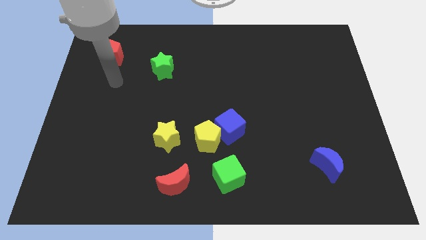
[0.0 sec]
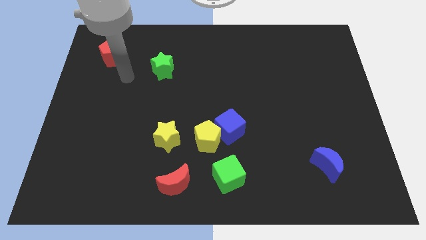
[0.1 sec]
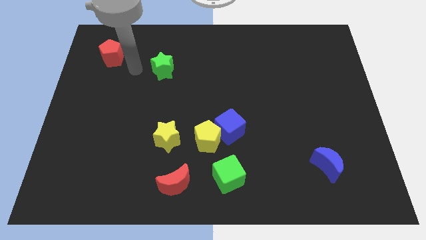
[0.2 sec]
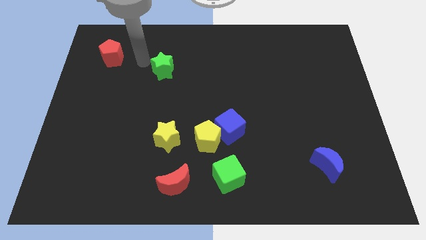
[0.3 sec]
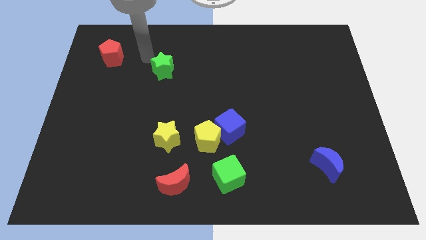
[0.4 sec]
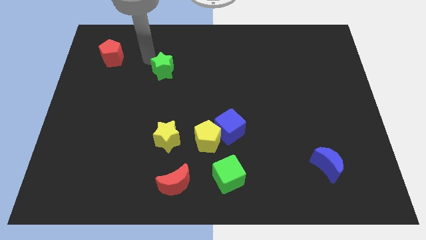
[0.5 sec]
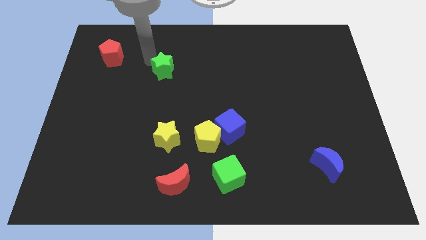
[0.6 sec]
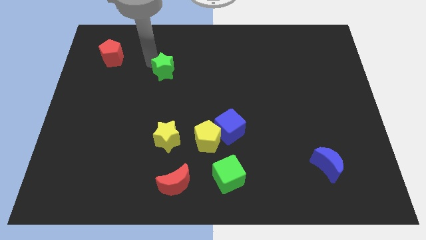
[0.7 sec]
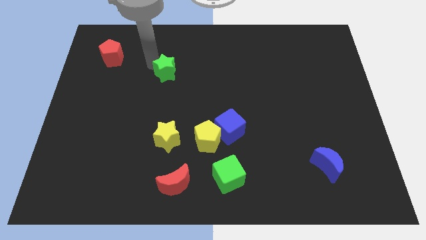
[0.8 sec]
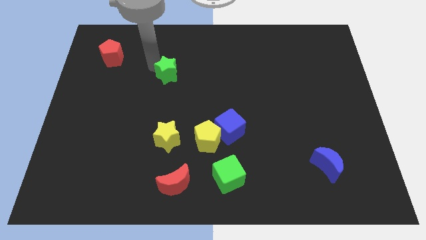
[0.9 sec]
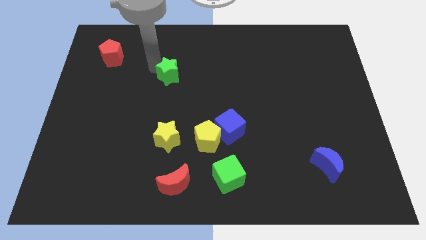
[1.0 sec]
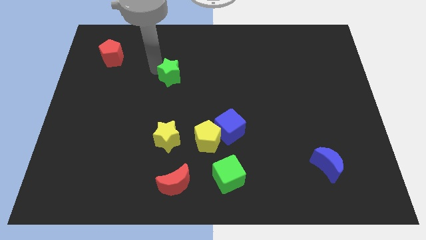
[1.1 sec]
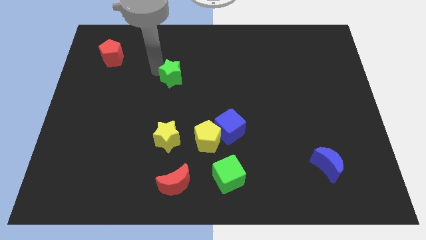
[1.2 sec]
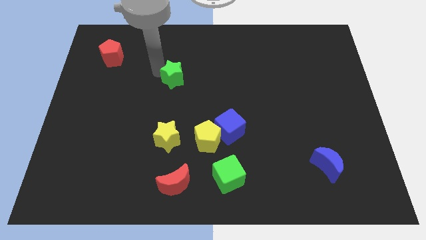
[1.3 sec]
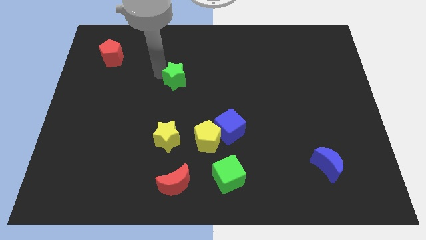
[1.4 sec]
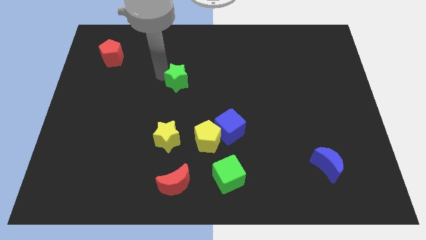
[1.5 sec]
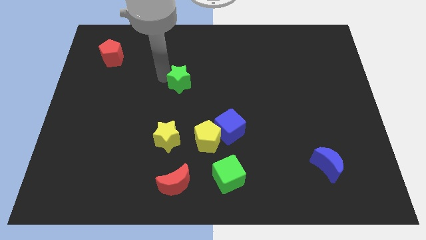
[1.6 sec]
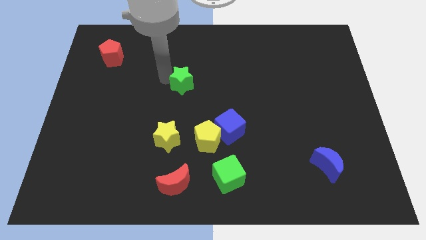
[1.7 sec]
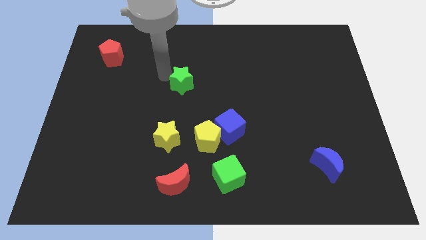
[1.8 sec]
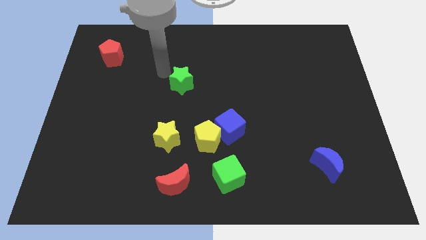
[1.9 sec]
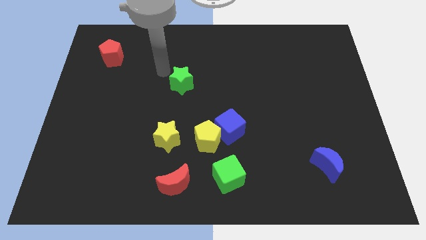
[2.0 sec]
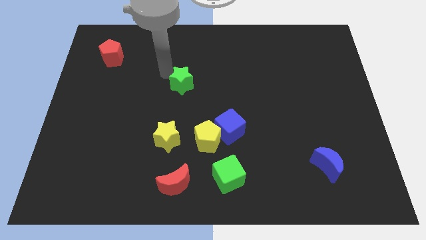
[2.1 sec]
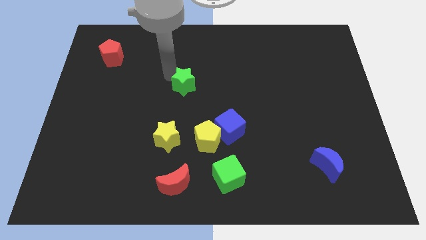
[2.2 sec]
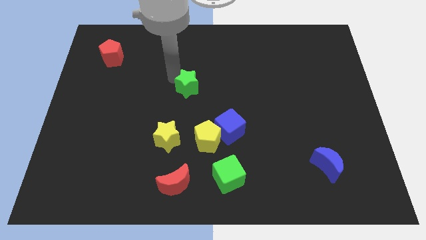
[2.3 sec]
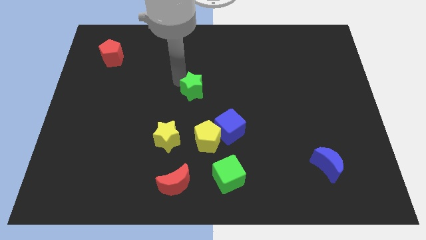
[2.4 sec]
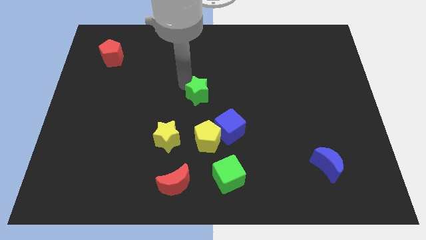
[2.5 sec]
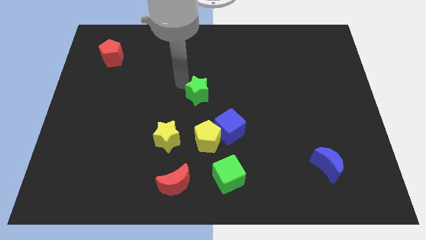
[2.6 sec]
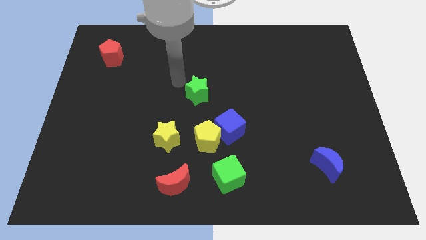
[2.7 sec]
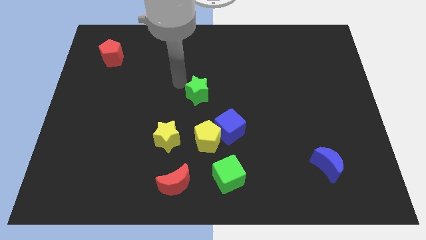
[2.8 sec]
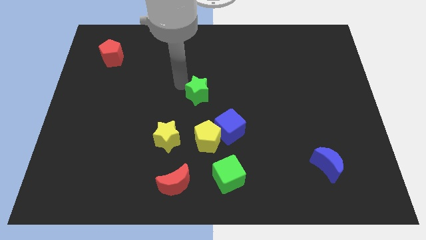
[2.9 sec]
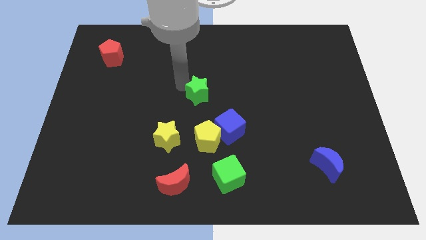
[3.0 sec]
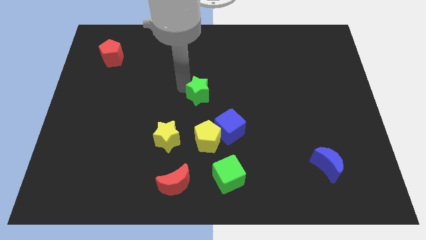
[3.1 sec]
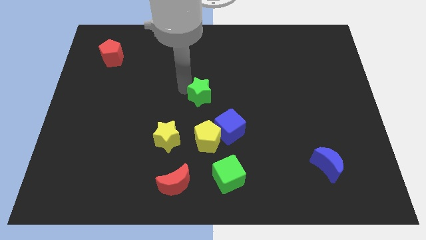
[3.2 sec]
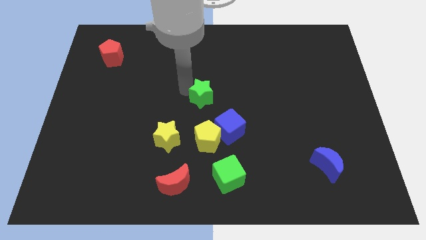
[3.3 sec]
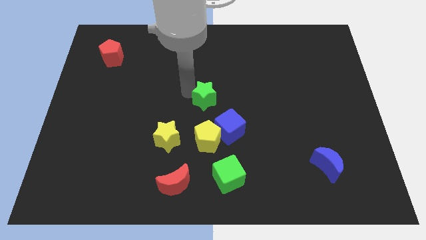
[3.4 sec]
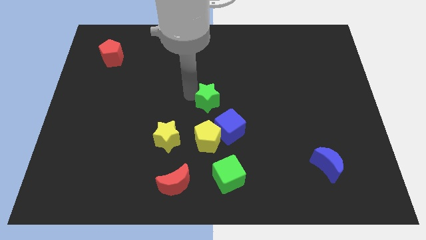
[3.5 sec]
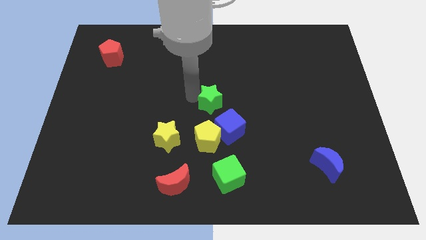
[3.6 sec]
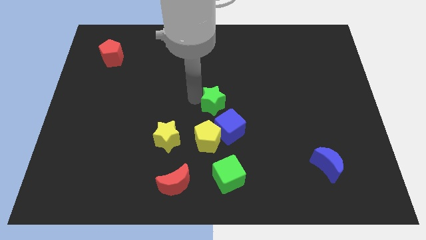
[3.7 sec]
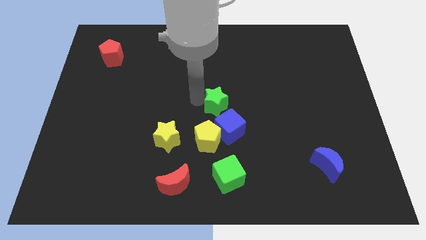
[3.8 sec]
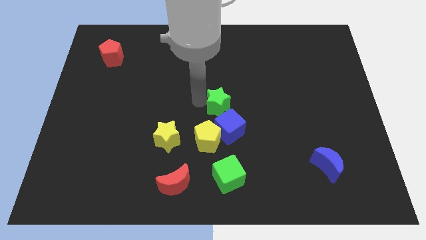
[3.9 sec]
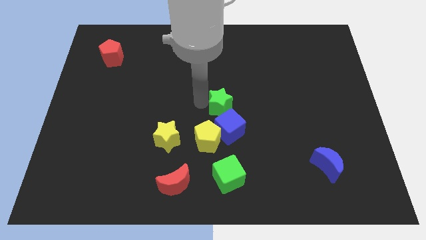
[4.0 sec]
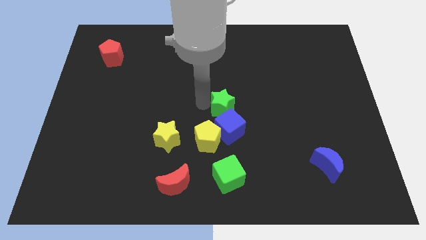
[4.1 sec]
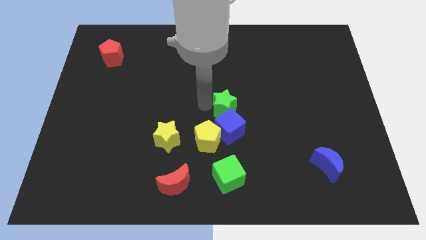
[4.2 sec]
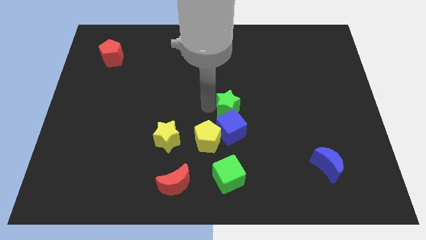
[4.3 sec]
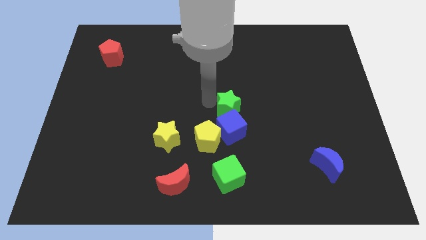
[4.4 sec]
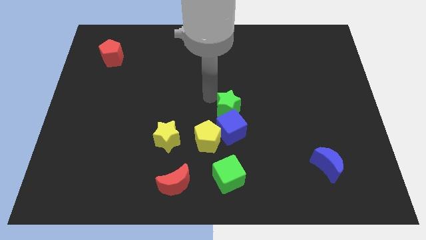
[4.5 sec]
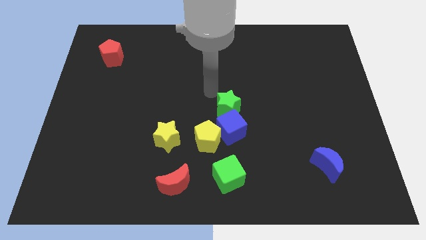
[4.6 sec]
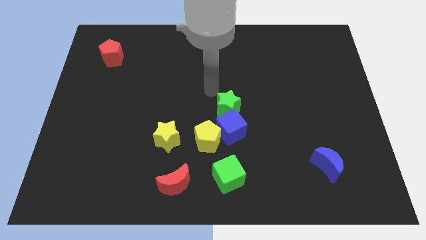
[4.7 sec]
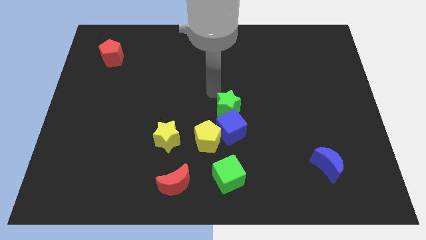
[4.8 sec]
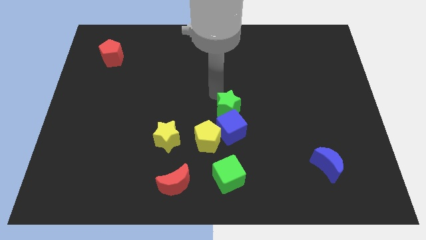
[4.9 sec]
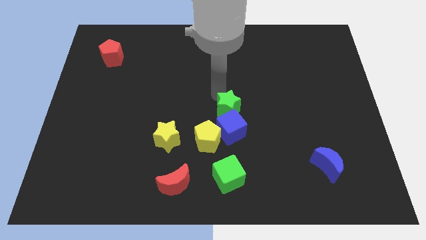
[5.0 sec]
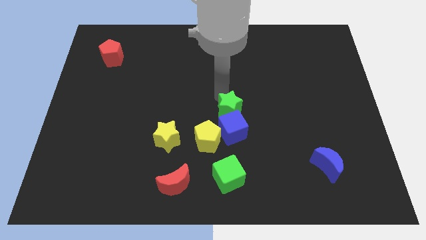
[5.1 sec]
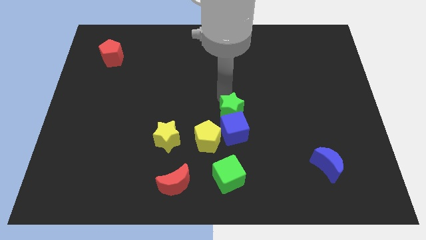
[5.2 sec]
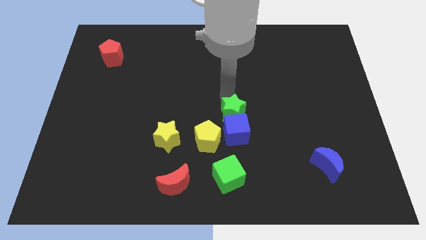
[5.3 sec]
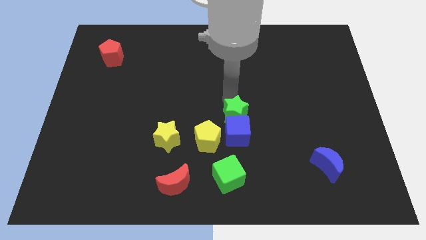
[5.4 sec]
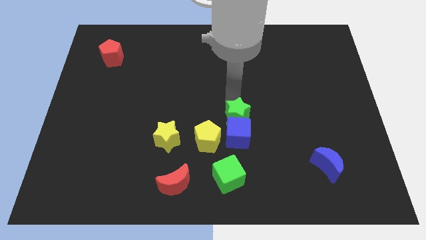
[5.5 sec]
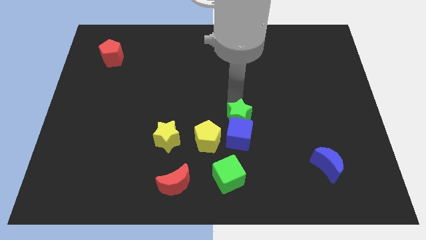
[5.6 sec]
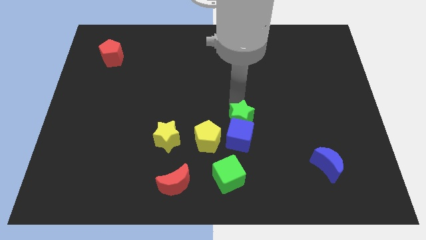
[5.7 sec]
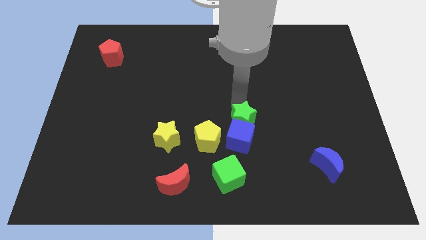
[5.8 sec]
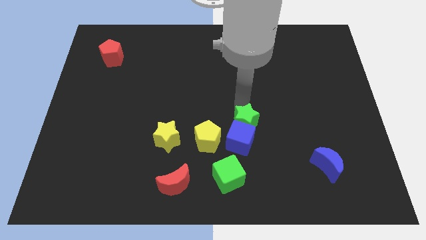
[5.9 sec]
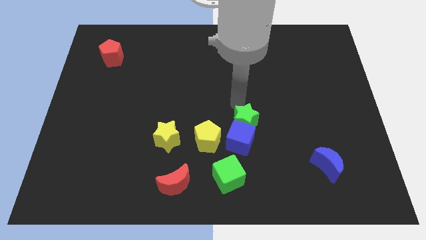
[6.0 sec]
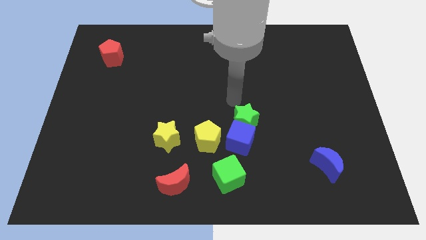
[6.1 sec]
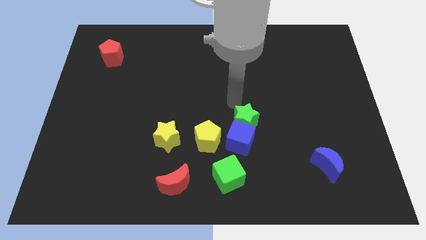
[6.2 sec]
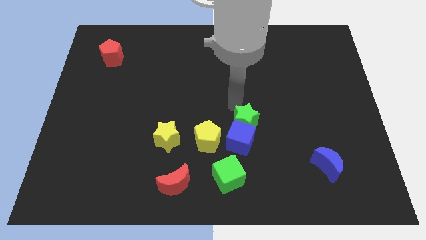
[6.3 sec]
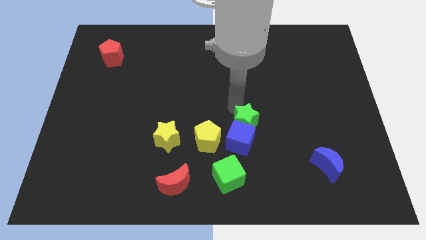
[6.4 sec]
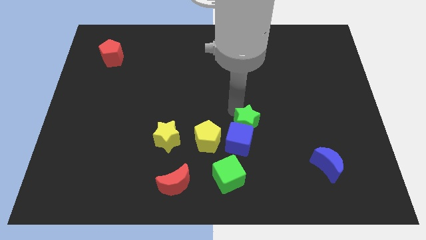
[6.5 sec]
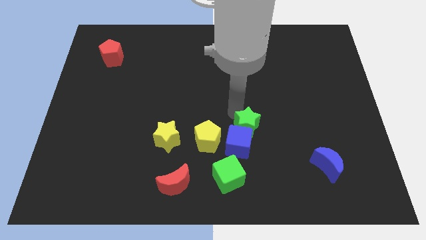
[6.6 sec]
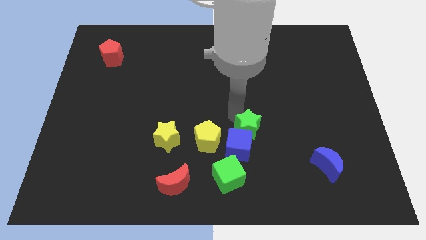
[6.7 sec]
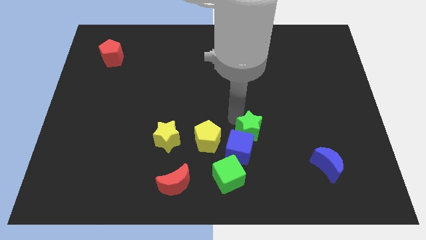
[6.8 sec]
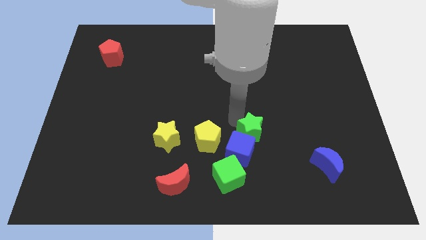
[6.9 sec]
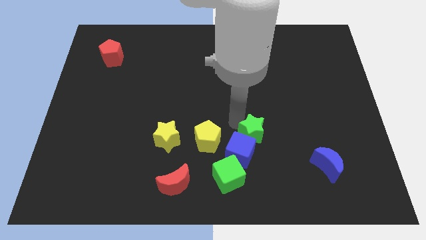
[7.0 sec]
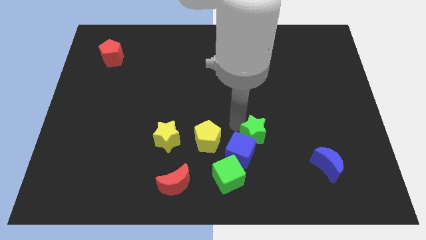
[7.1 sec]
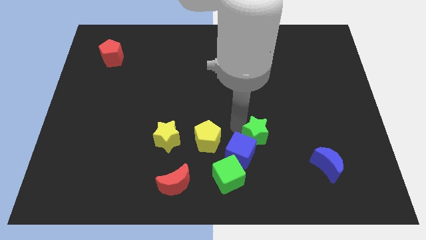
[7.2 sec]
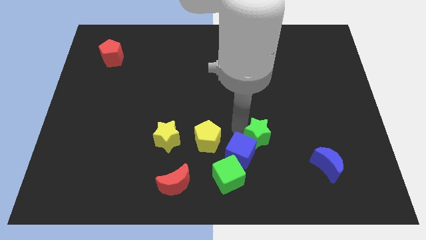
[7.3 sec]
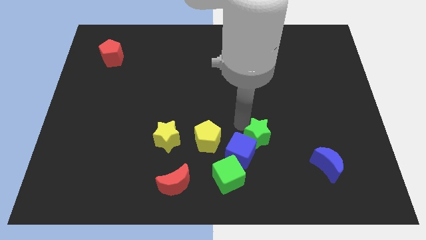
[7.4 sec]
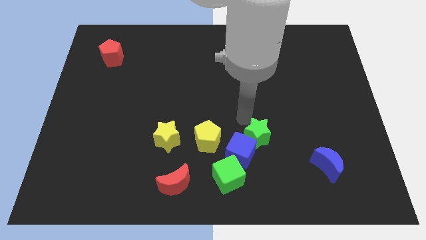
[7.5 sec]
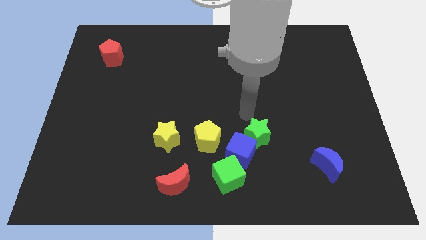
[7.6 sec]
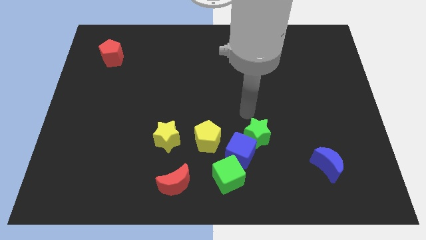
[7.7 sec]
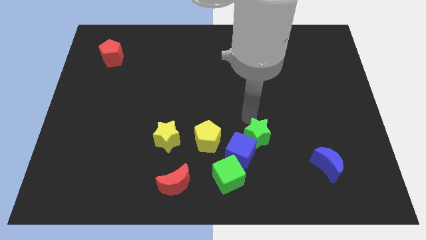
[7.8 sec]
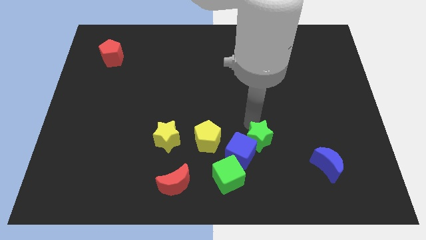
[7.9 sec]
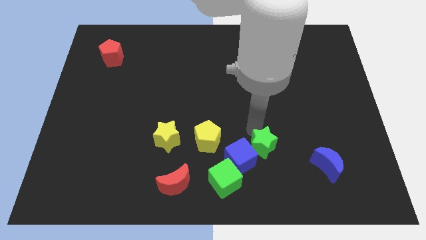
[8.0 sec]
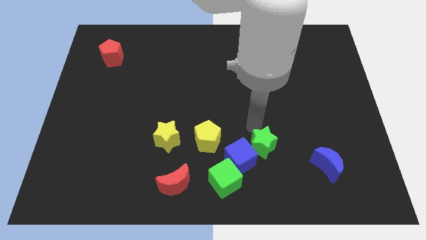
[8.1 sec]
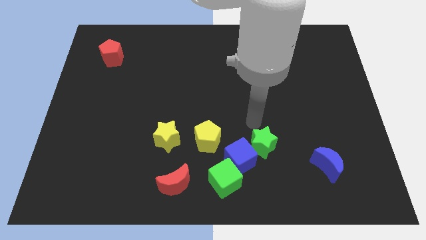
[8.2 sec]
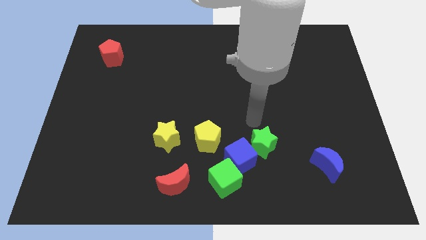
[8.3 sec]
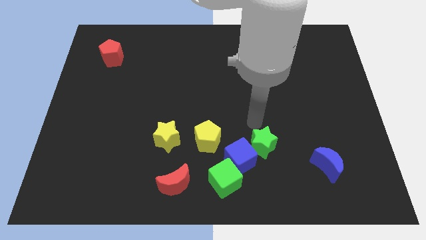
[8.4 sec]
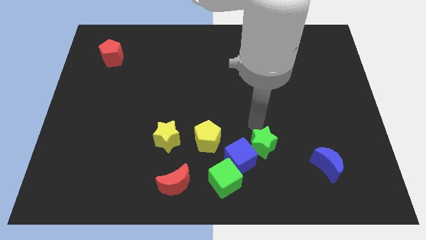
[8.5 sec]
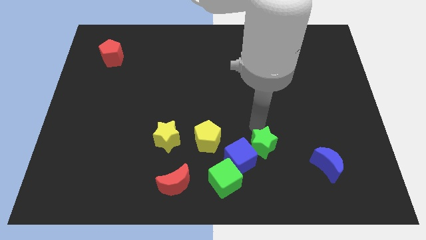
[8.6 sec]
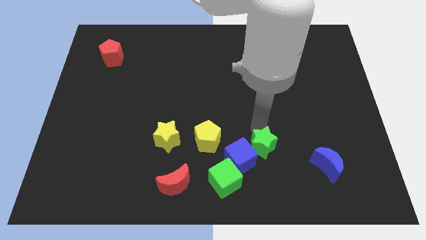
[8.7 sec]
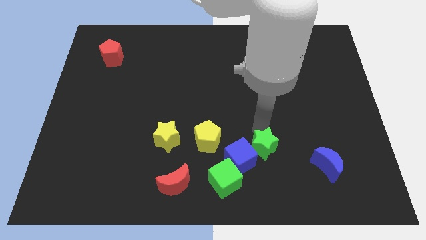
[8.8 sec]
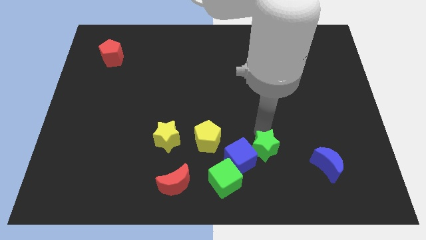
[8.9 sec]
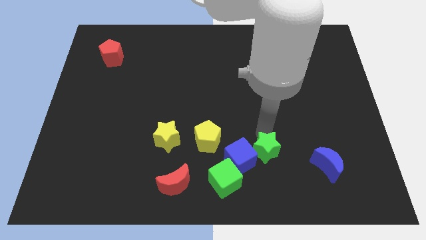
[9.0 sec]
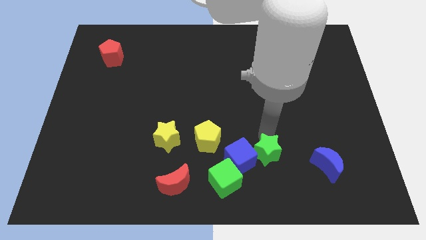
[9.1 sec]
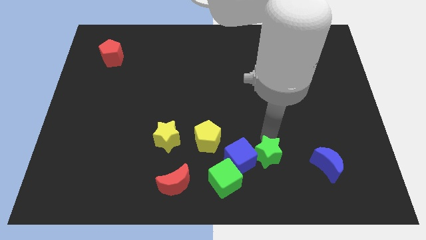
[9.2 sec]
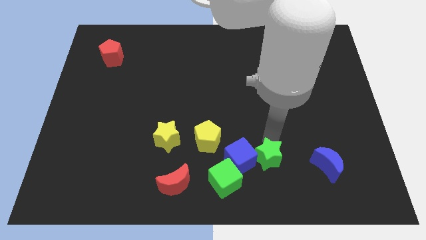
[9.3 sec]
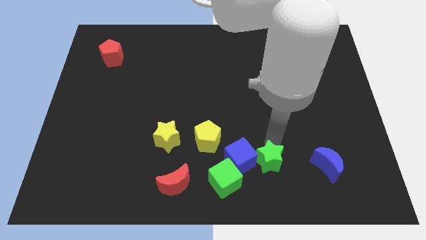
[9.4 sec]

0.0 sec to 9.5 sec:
push the green star right of the green cube
